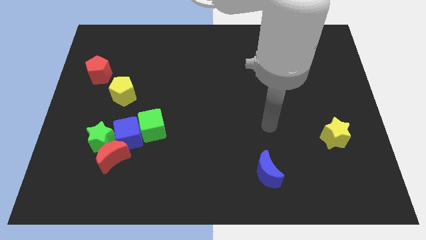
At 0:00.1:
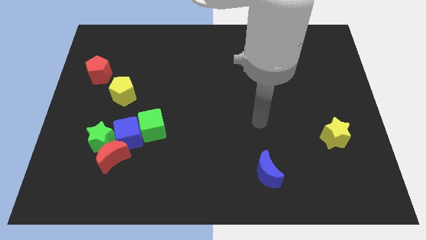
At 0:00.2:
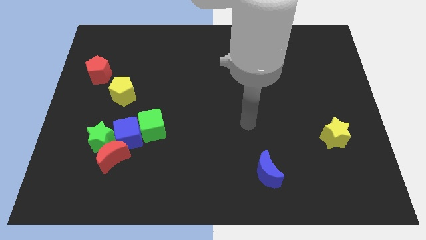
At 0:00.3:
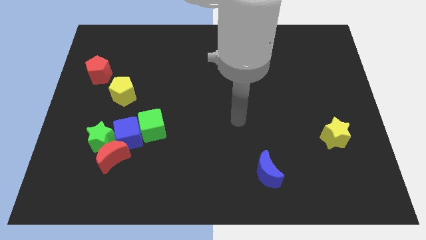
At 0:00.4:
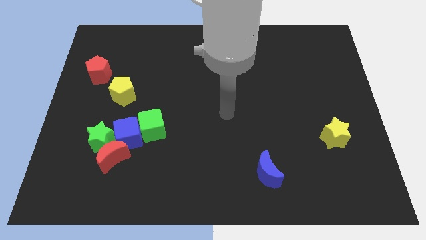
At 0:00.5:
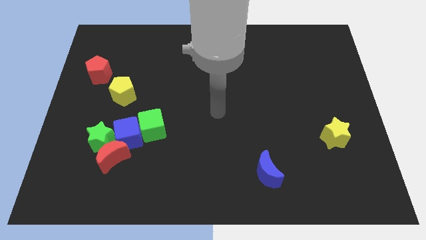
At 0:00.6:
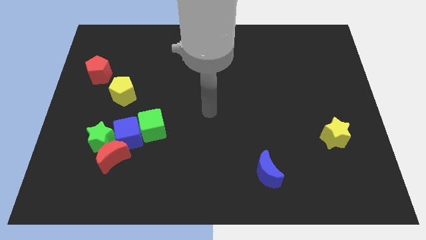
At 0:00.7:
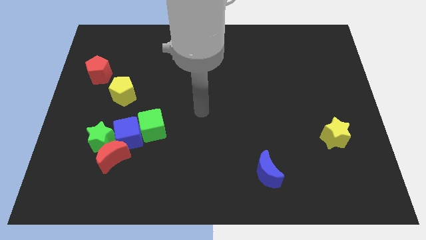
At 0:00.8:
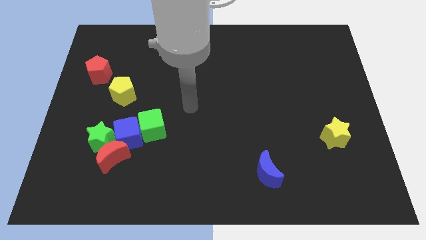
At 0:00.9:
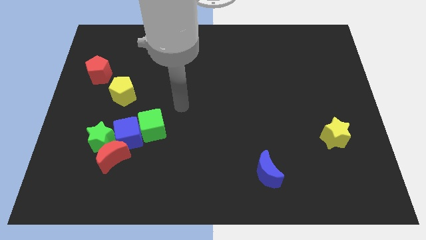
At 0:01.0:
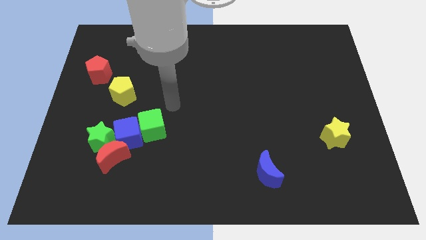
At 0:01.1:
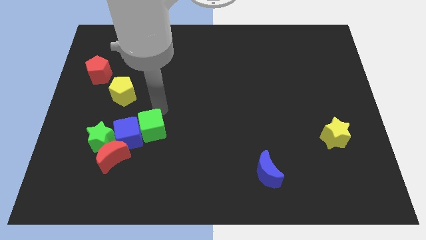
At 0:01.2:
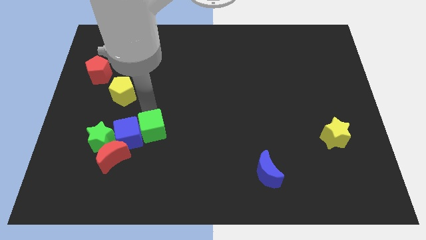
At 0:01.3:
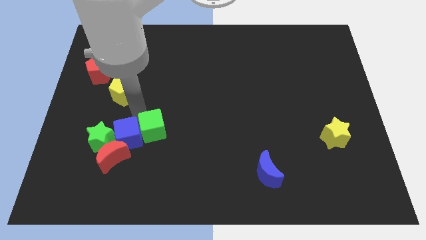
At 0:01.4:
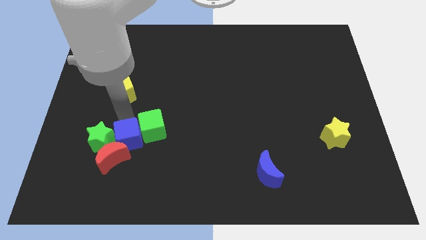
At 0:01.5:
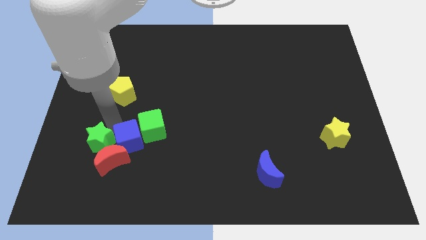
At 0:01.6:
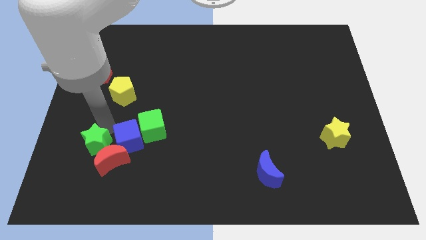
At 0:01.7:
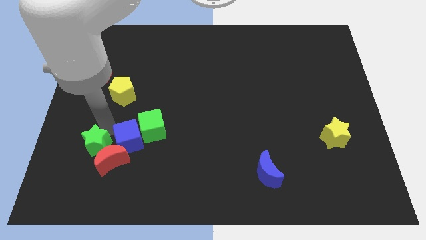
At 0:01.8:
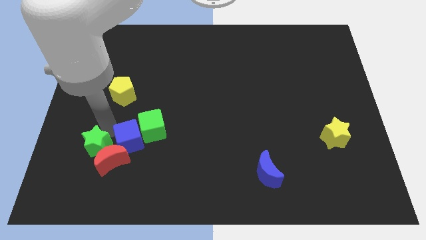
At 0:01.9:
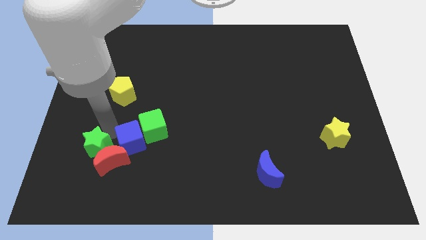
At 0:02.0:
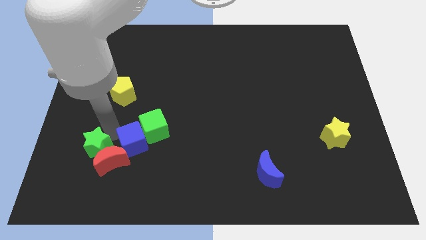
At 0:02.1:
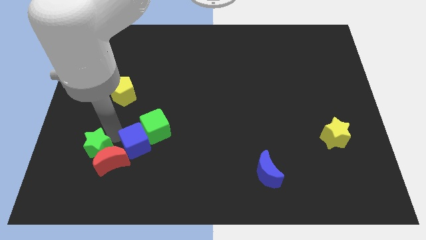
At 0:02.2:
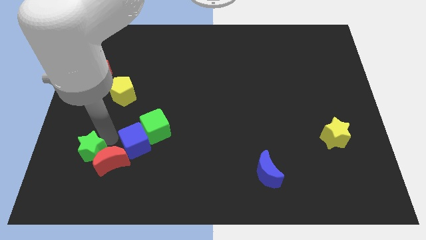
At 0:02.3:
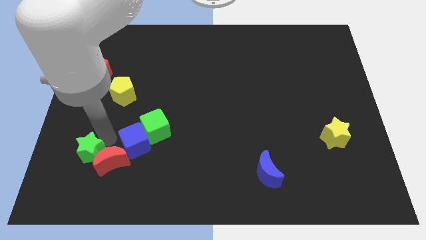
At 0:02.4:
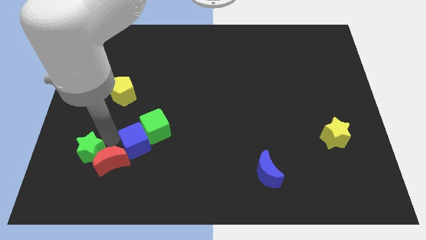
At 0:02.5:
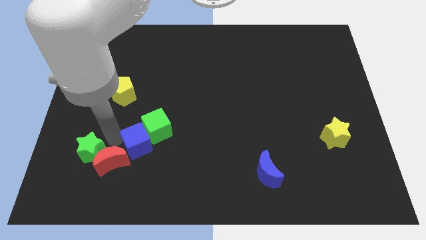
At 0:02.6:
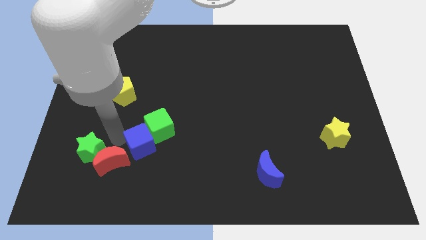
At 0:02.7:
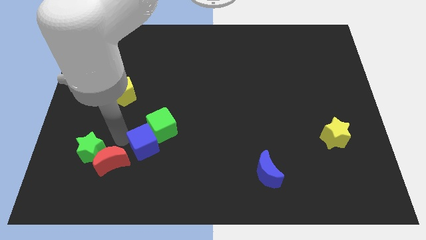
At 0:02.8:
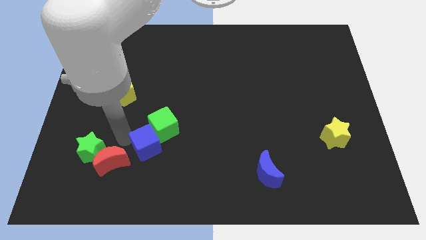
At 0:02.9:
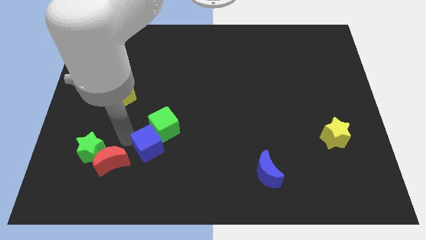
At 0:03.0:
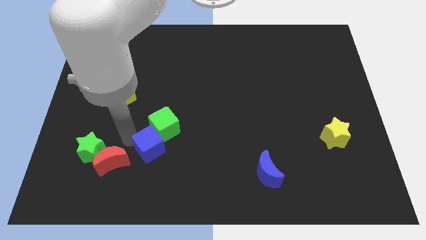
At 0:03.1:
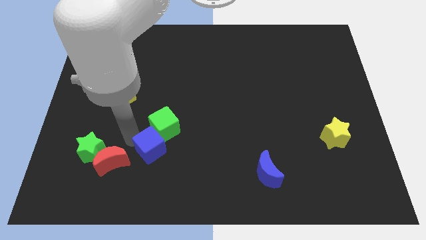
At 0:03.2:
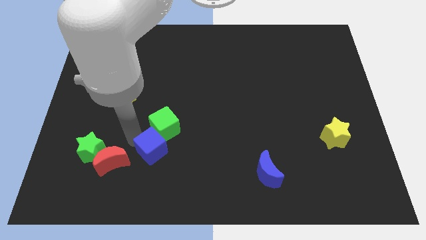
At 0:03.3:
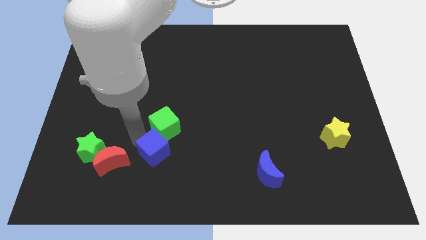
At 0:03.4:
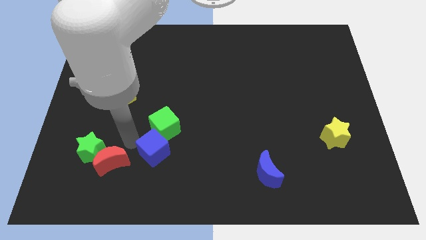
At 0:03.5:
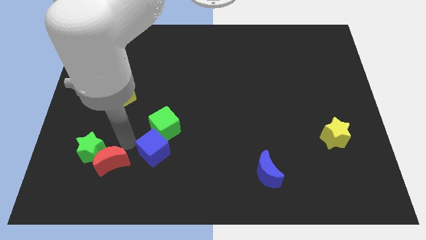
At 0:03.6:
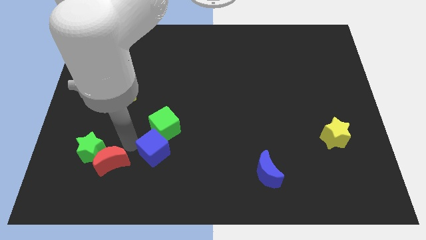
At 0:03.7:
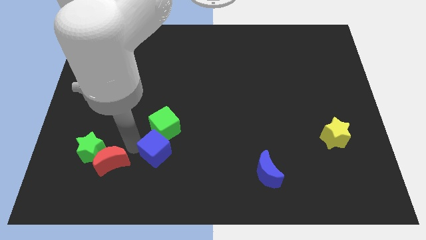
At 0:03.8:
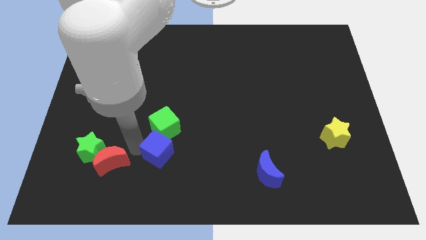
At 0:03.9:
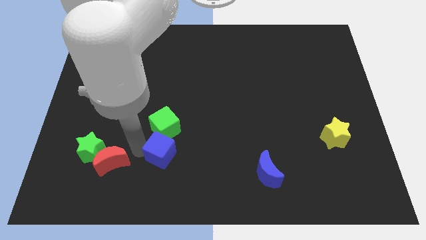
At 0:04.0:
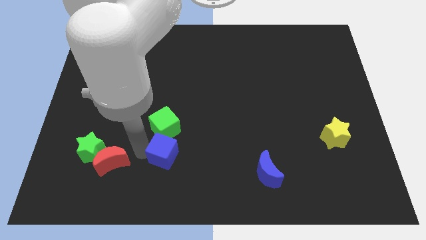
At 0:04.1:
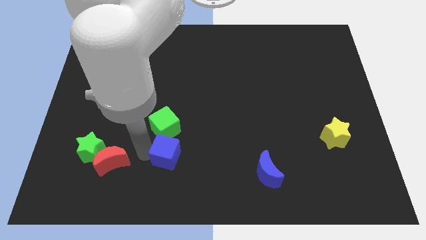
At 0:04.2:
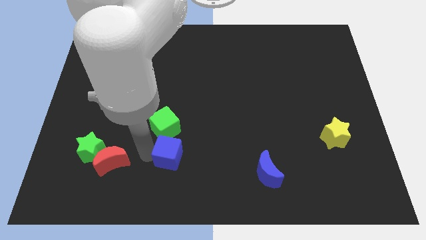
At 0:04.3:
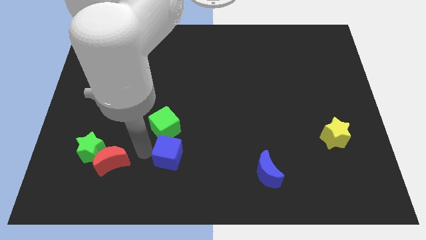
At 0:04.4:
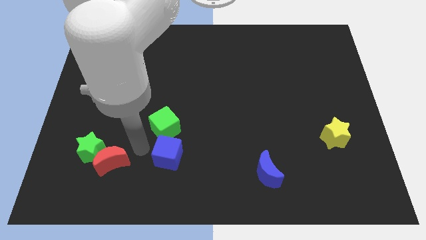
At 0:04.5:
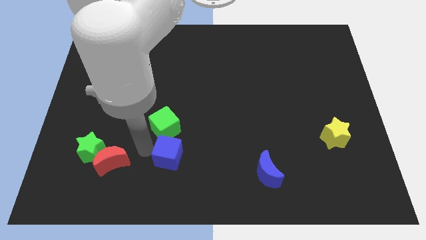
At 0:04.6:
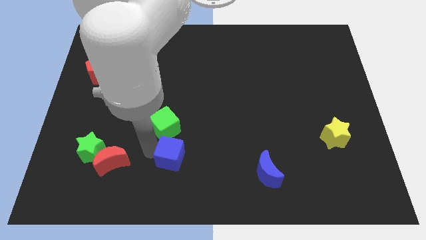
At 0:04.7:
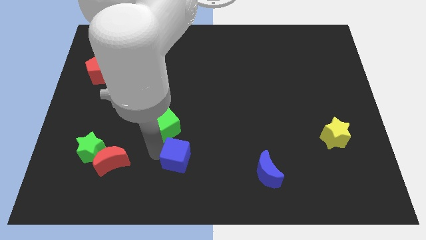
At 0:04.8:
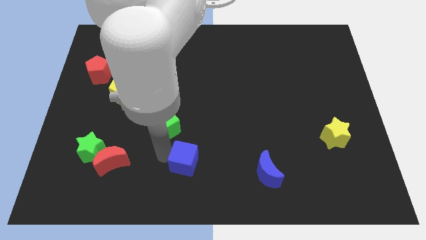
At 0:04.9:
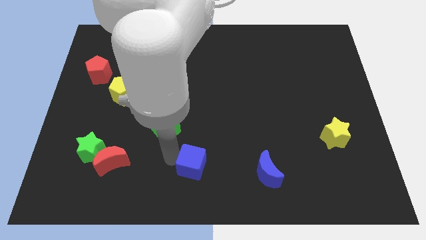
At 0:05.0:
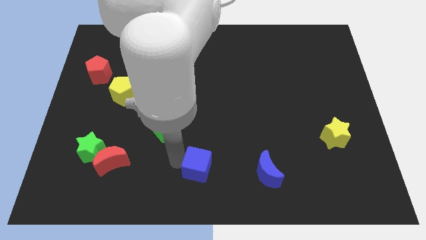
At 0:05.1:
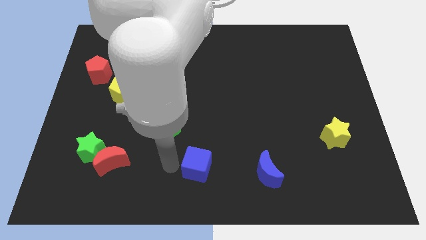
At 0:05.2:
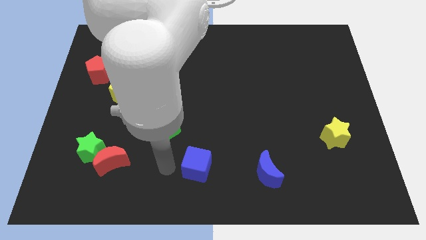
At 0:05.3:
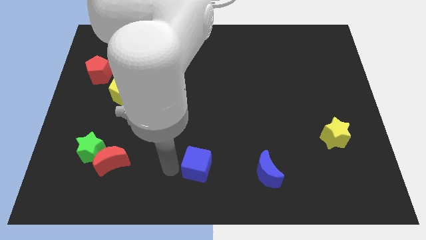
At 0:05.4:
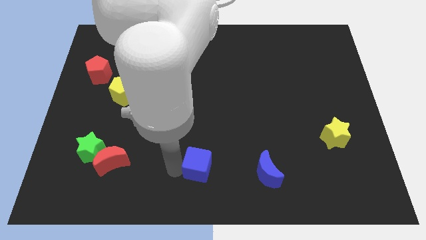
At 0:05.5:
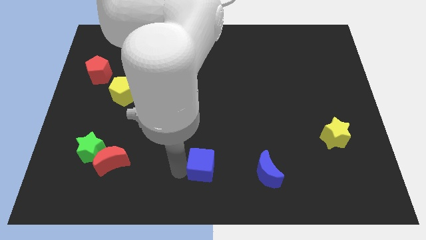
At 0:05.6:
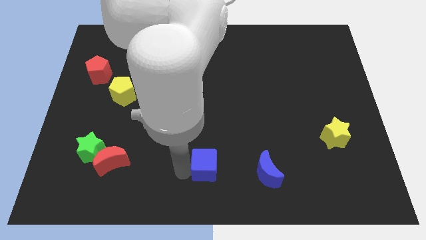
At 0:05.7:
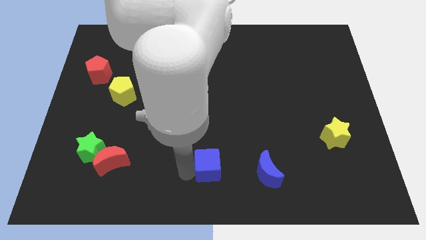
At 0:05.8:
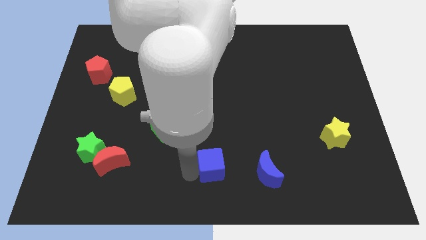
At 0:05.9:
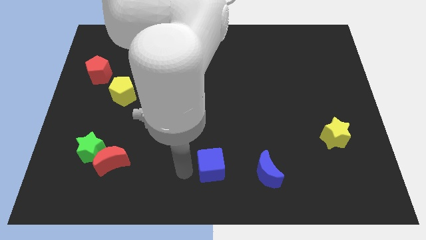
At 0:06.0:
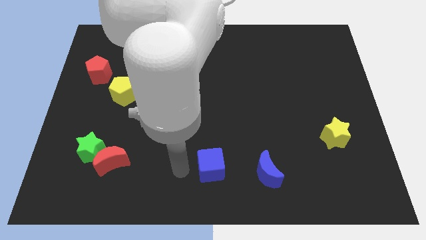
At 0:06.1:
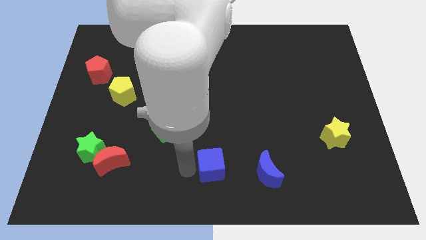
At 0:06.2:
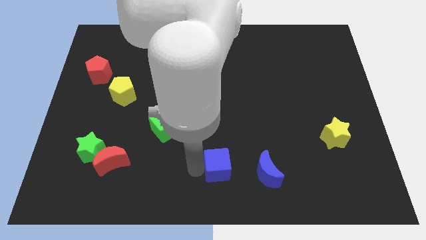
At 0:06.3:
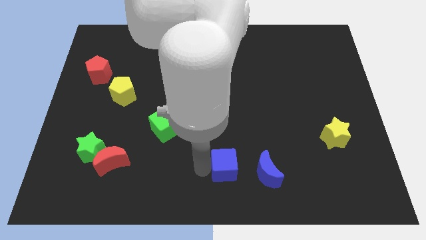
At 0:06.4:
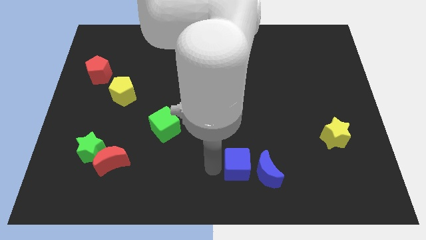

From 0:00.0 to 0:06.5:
move the blue cube to the blue moon

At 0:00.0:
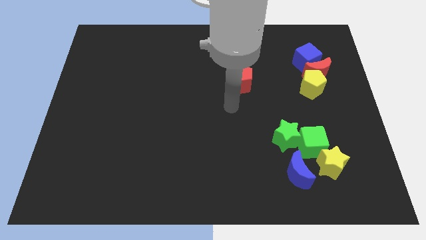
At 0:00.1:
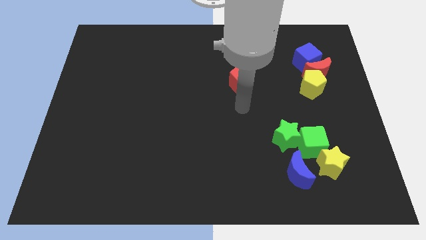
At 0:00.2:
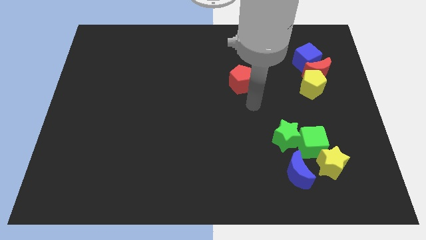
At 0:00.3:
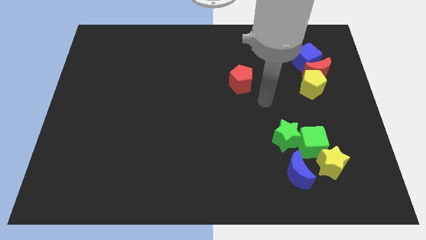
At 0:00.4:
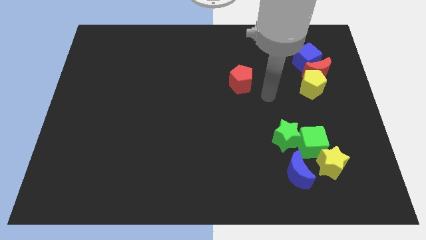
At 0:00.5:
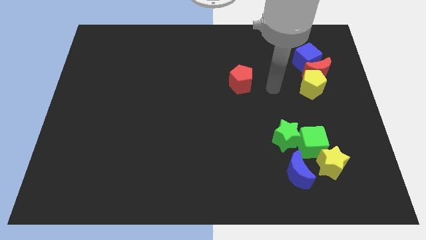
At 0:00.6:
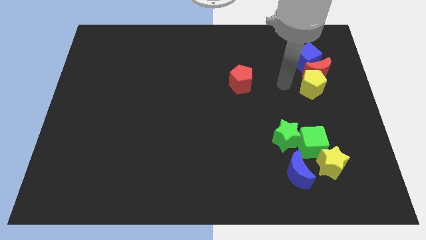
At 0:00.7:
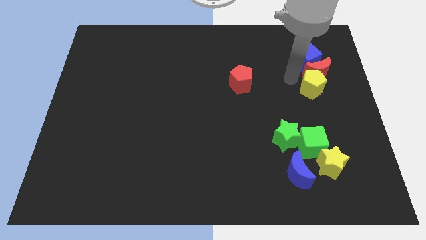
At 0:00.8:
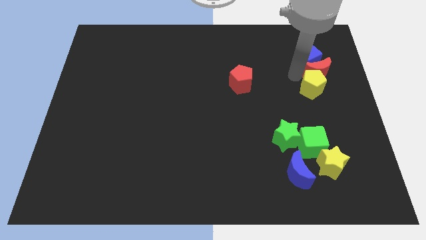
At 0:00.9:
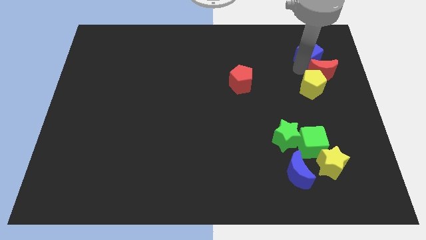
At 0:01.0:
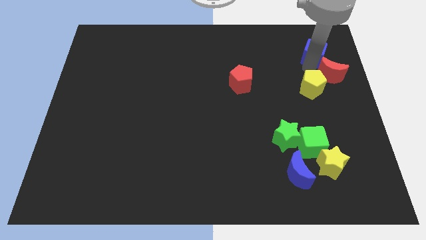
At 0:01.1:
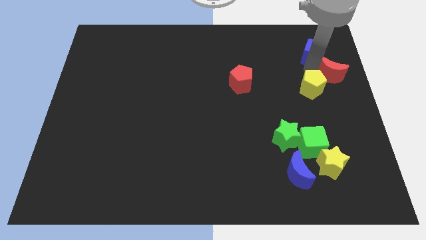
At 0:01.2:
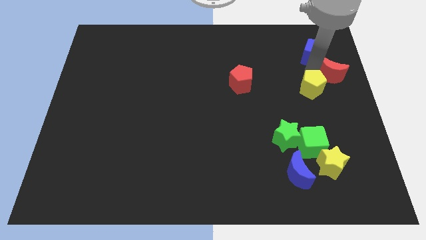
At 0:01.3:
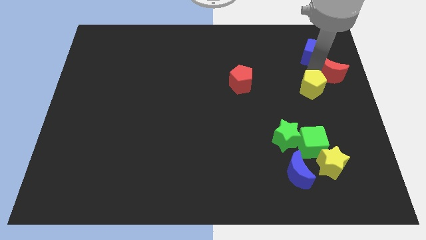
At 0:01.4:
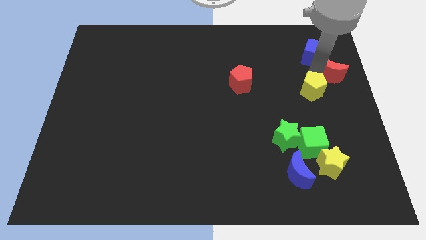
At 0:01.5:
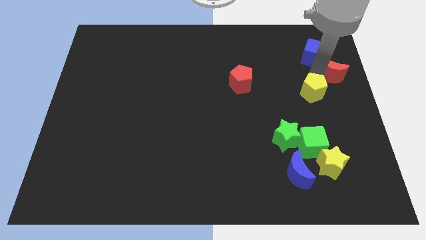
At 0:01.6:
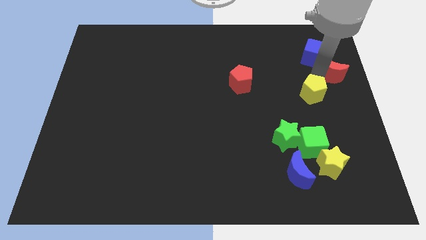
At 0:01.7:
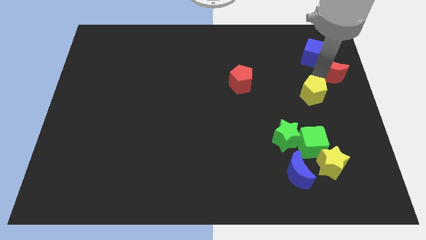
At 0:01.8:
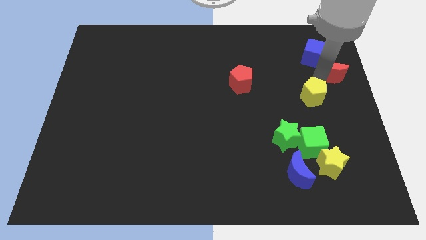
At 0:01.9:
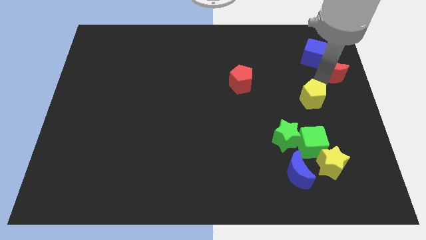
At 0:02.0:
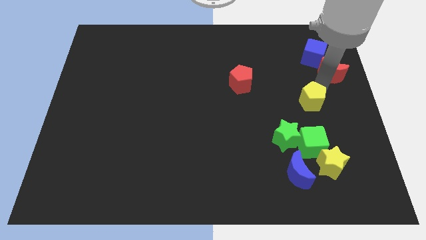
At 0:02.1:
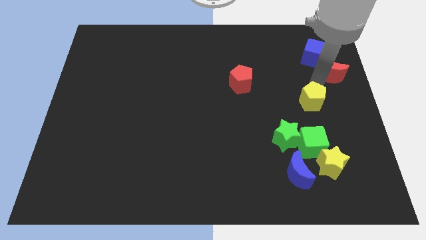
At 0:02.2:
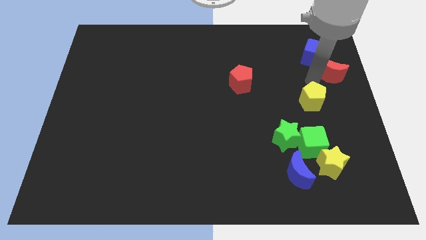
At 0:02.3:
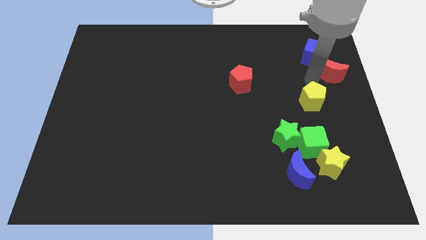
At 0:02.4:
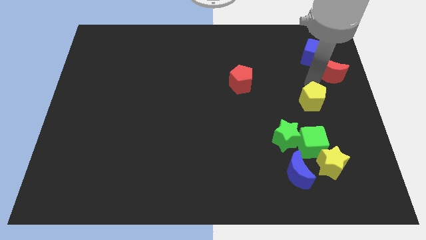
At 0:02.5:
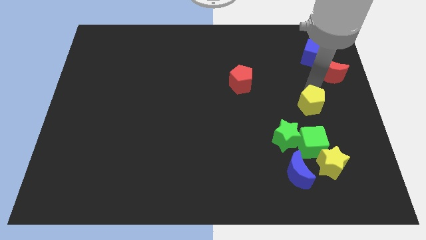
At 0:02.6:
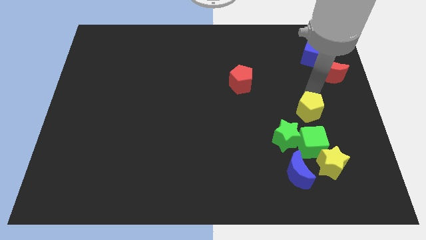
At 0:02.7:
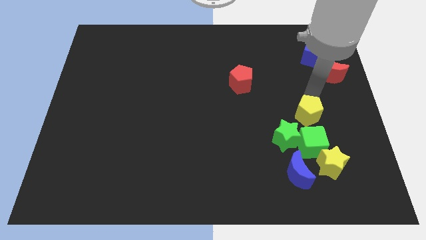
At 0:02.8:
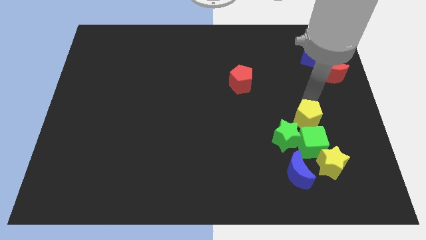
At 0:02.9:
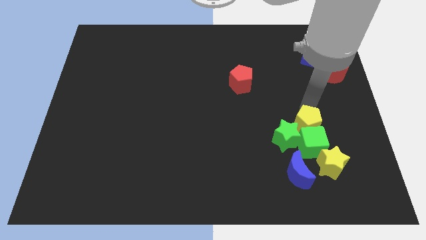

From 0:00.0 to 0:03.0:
put the yellow pentagon next to the green cube
